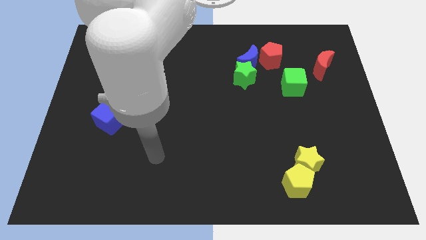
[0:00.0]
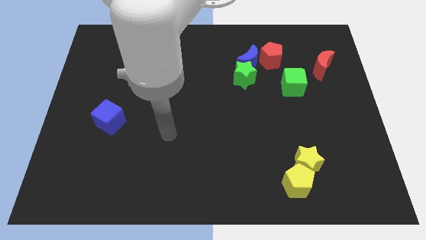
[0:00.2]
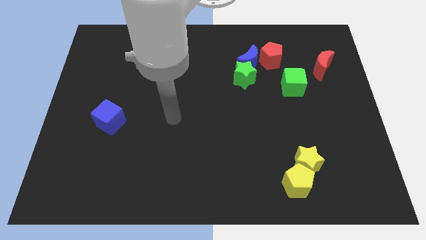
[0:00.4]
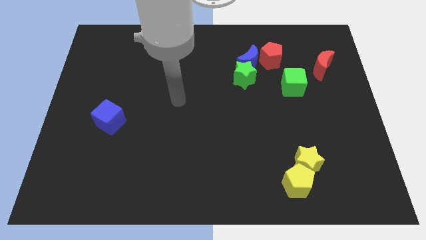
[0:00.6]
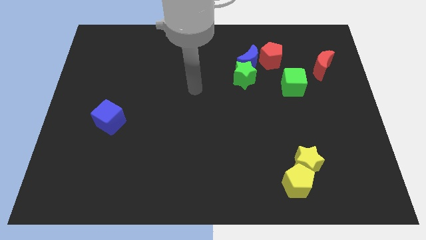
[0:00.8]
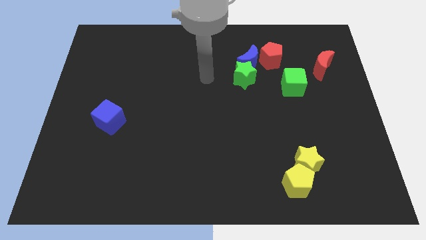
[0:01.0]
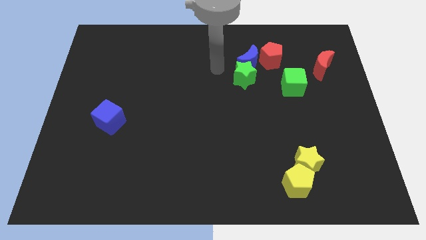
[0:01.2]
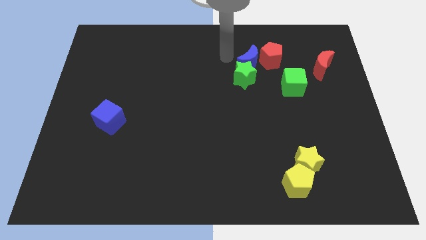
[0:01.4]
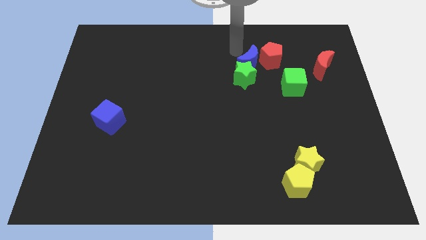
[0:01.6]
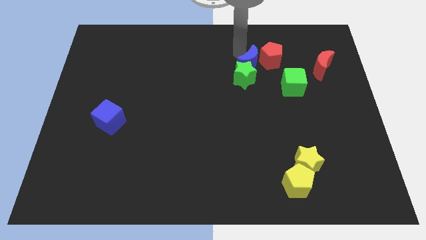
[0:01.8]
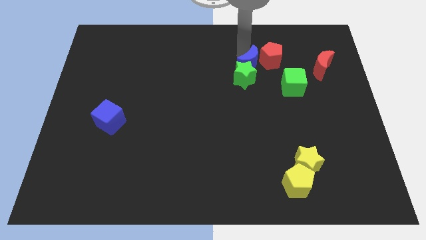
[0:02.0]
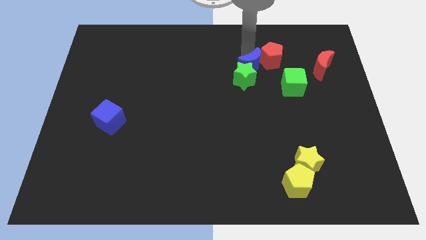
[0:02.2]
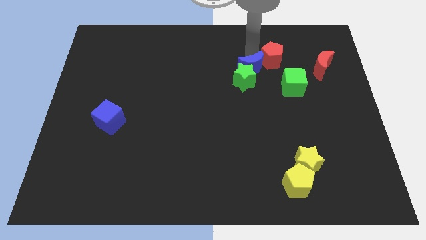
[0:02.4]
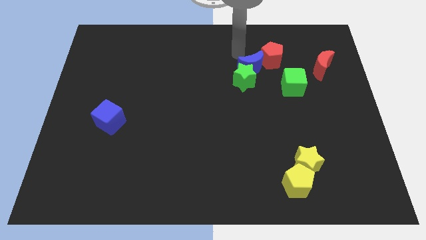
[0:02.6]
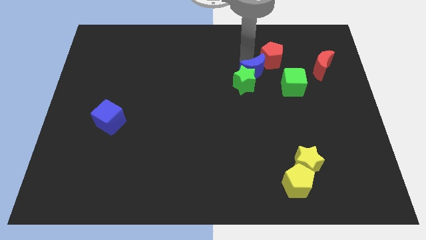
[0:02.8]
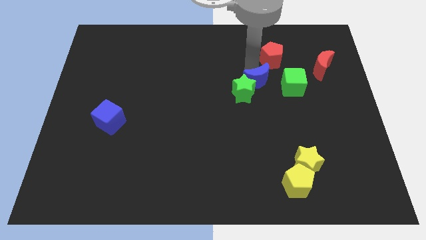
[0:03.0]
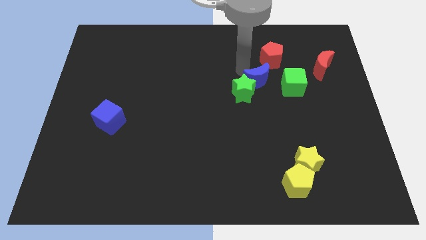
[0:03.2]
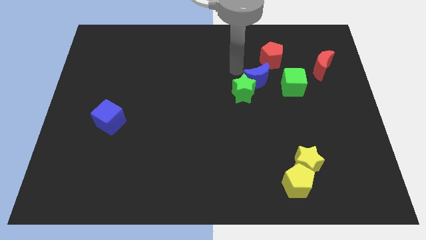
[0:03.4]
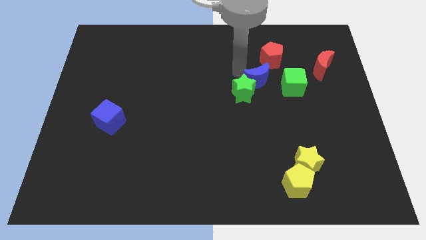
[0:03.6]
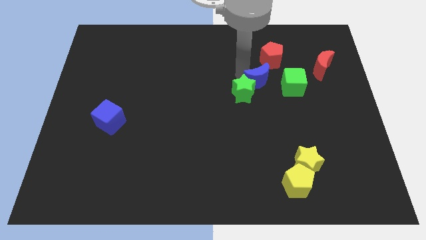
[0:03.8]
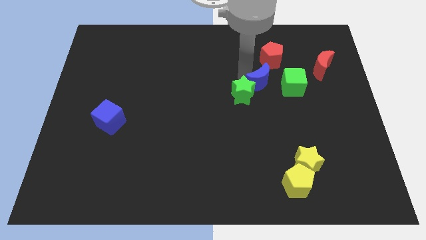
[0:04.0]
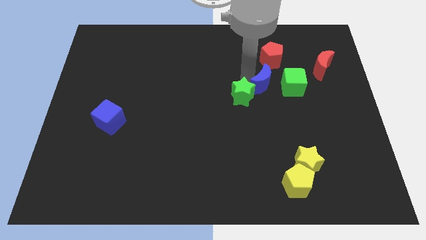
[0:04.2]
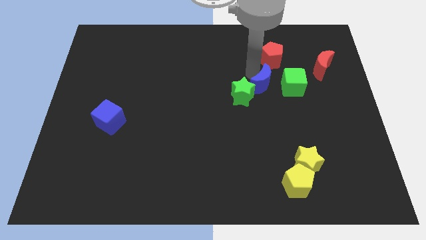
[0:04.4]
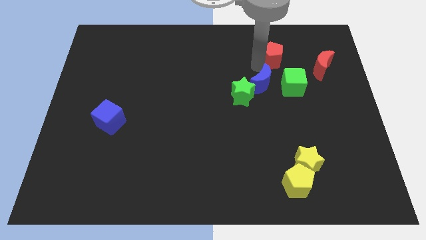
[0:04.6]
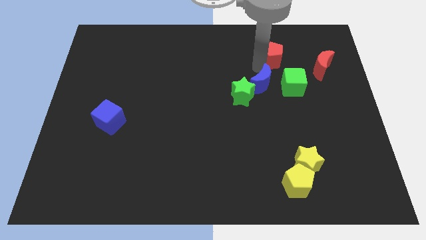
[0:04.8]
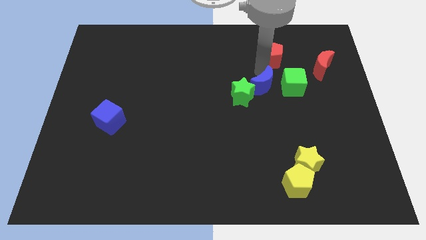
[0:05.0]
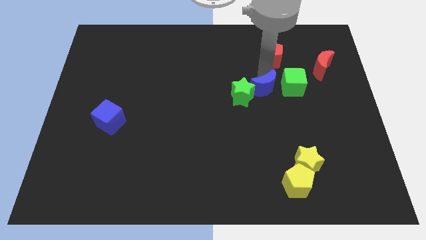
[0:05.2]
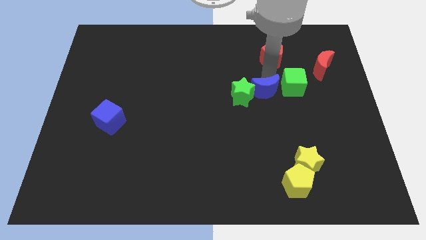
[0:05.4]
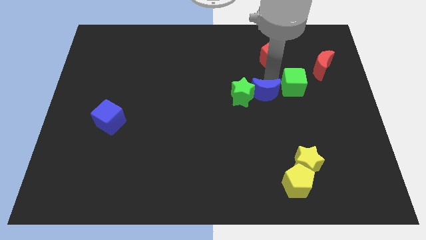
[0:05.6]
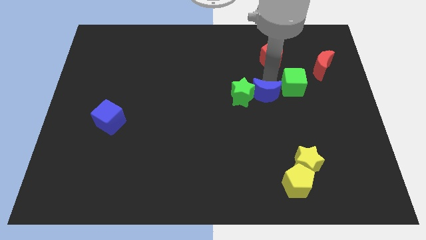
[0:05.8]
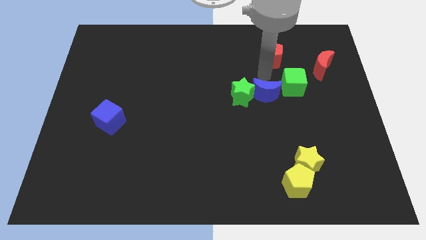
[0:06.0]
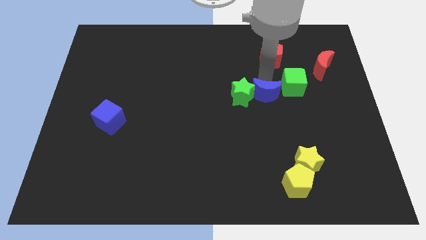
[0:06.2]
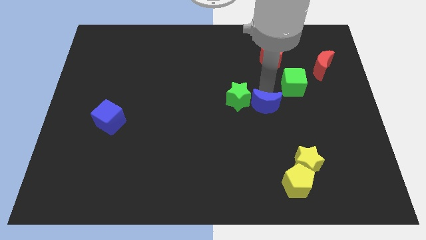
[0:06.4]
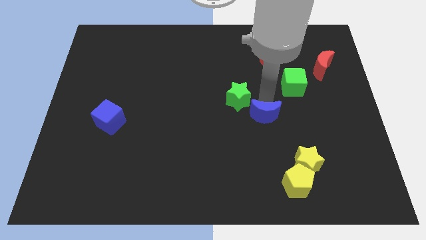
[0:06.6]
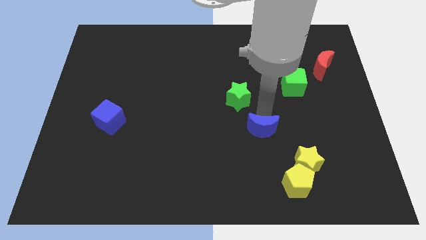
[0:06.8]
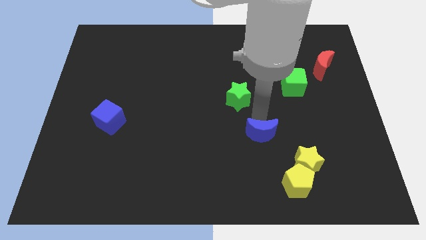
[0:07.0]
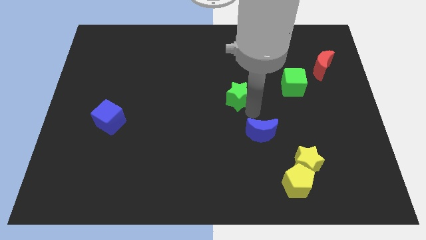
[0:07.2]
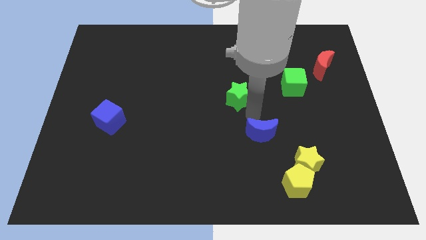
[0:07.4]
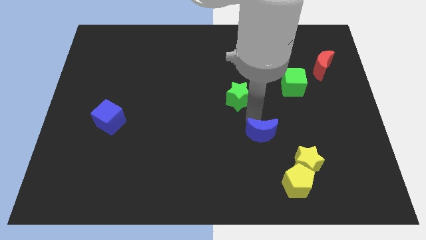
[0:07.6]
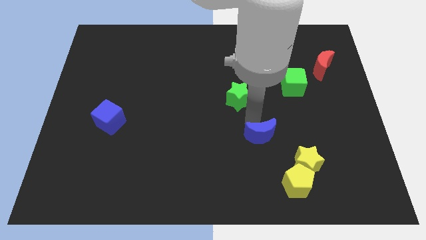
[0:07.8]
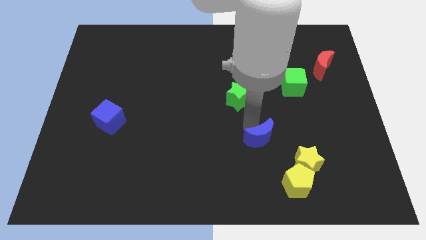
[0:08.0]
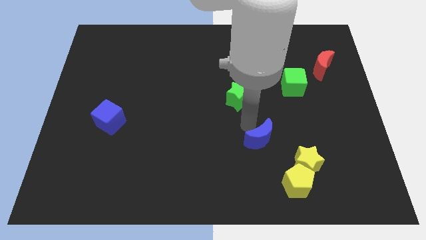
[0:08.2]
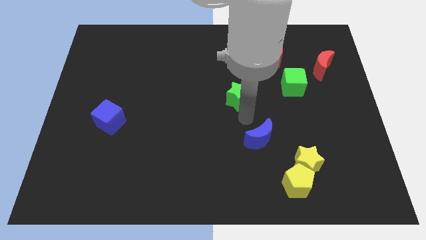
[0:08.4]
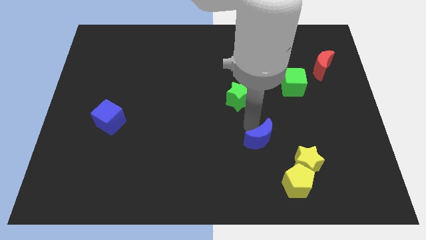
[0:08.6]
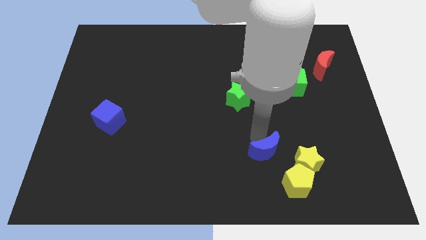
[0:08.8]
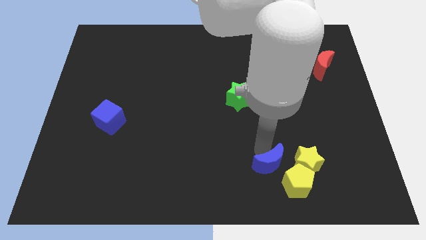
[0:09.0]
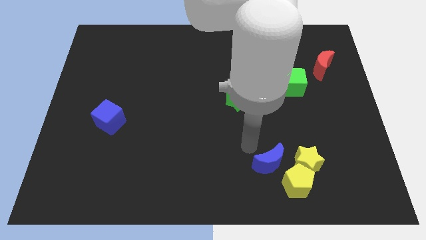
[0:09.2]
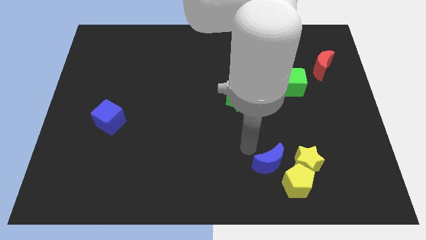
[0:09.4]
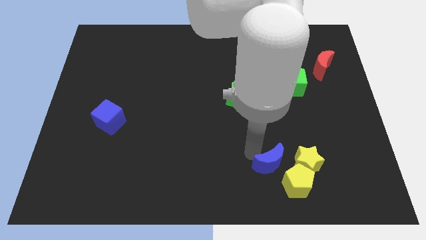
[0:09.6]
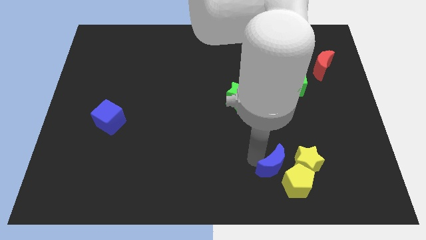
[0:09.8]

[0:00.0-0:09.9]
put the blue moon to the yellow pentagon

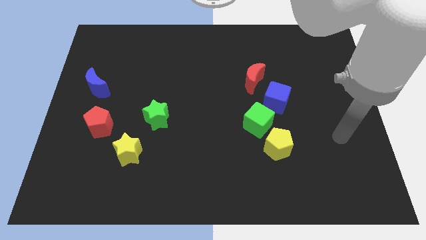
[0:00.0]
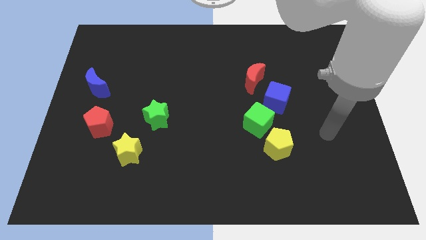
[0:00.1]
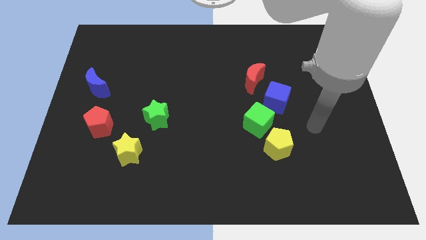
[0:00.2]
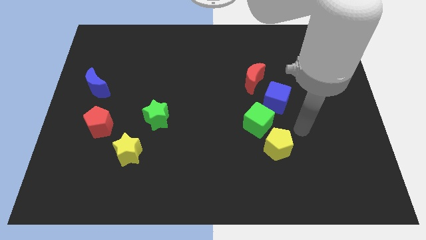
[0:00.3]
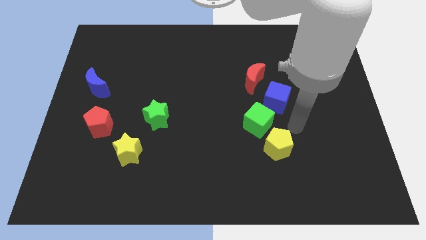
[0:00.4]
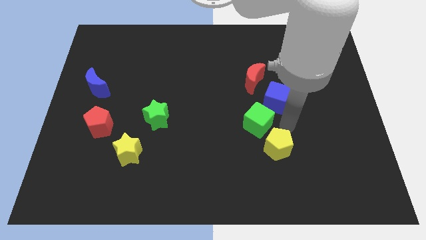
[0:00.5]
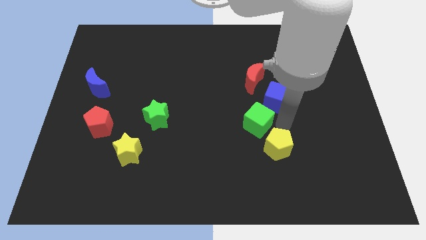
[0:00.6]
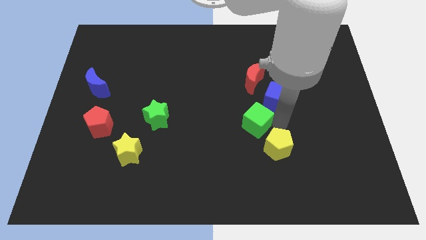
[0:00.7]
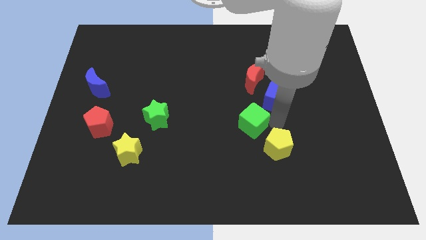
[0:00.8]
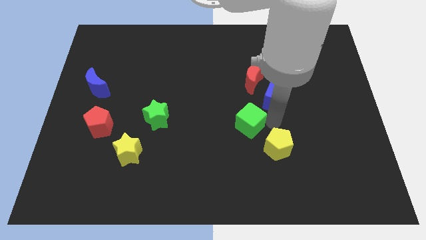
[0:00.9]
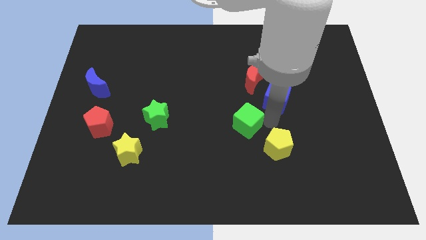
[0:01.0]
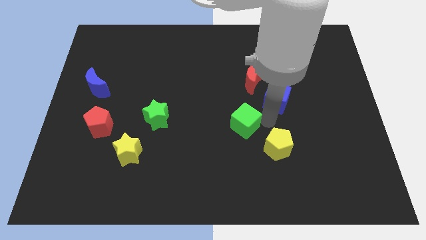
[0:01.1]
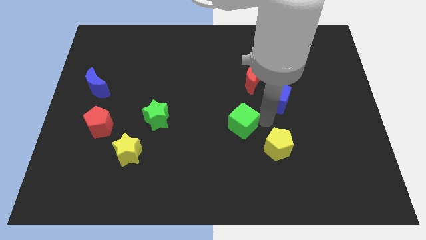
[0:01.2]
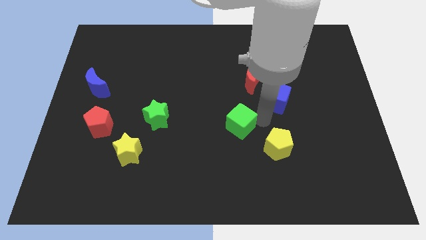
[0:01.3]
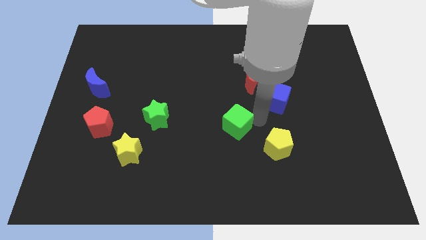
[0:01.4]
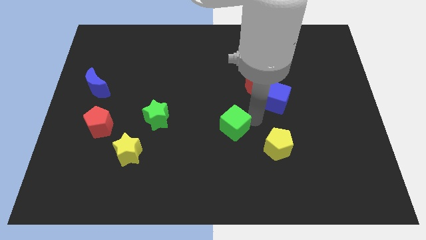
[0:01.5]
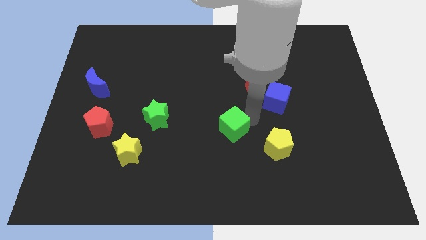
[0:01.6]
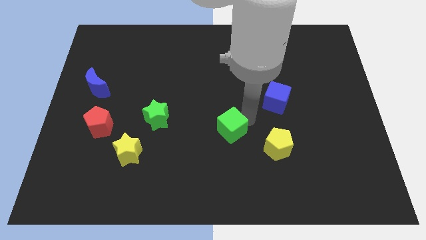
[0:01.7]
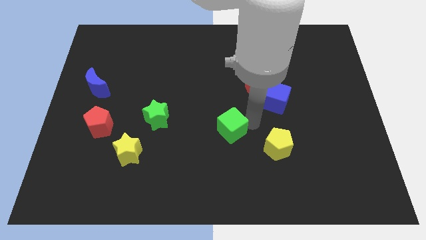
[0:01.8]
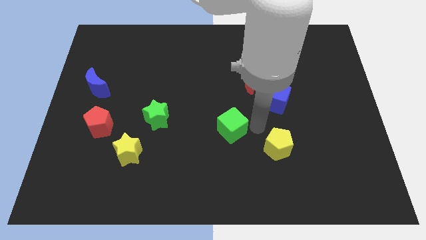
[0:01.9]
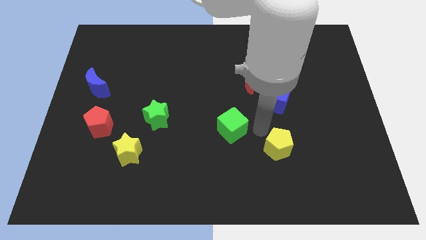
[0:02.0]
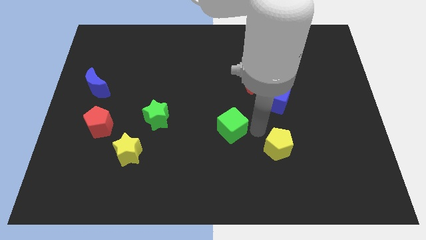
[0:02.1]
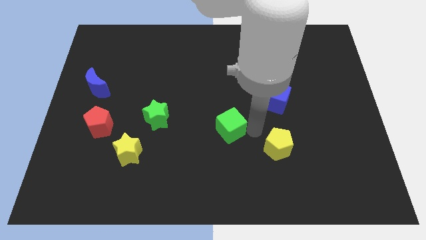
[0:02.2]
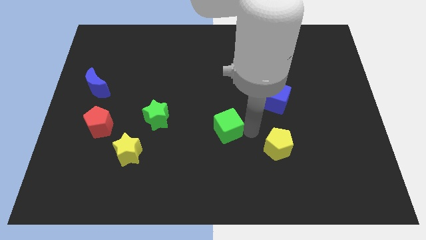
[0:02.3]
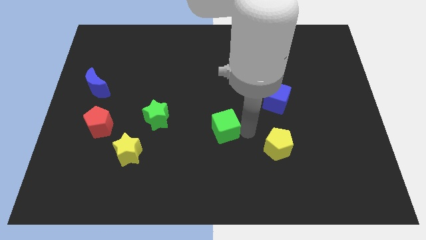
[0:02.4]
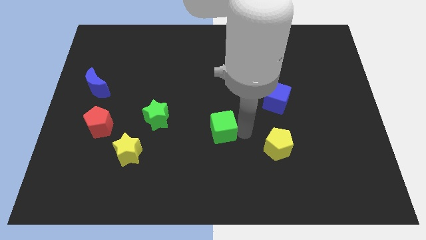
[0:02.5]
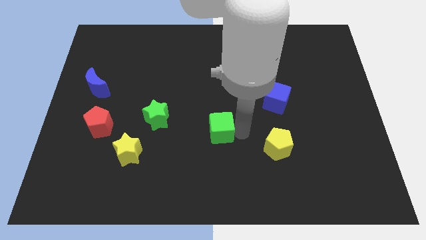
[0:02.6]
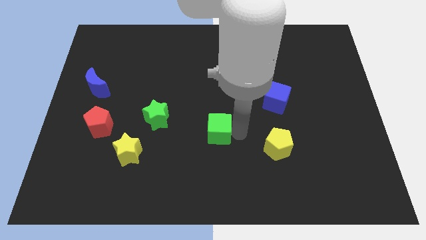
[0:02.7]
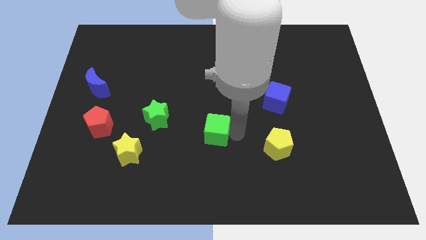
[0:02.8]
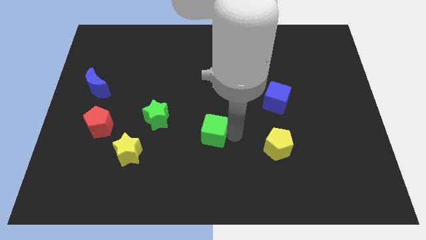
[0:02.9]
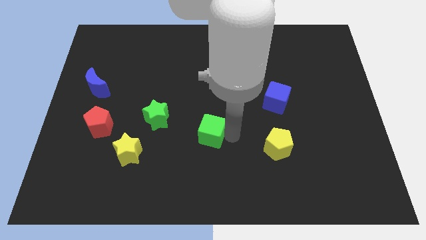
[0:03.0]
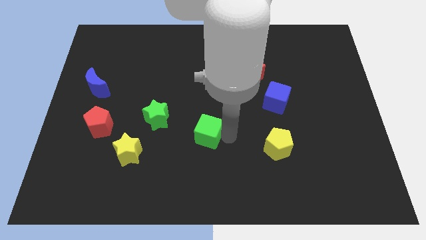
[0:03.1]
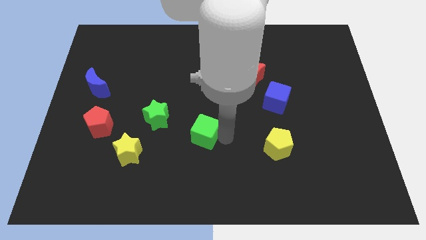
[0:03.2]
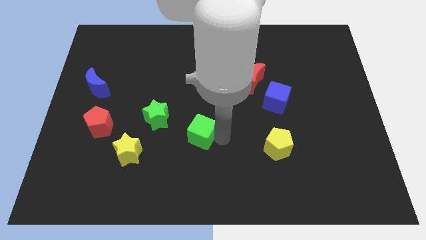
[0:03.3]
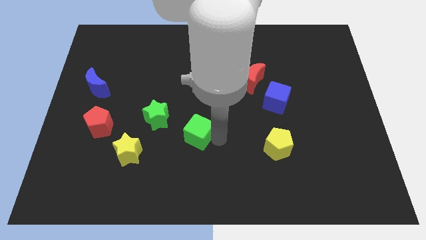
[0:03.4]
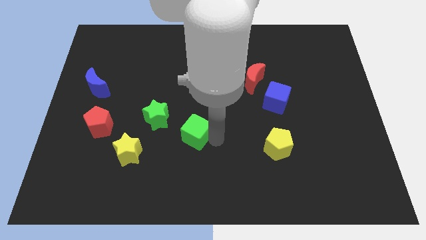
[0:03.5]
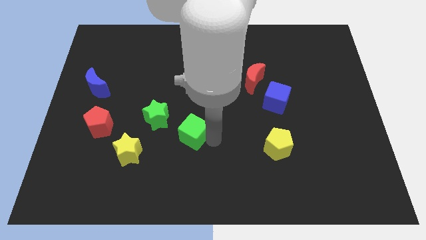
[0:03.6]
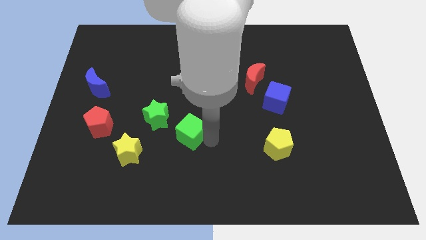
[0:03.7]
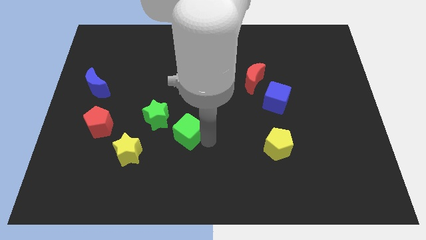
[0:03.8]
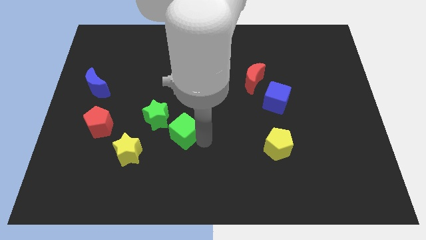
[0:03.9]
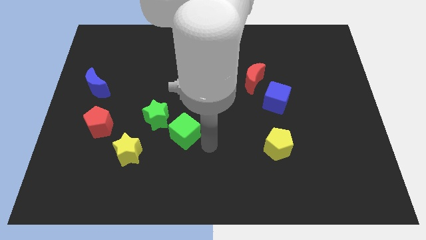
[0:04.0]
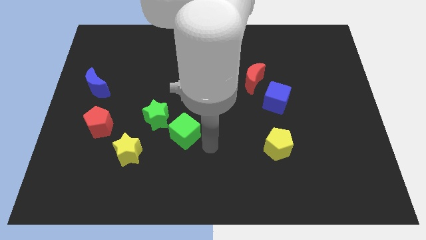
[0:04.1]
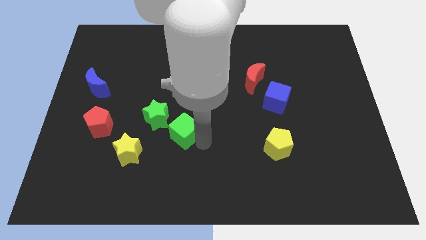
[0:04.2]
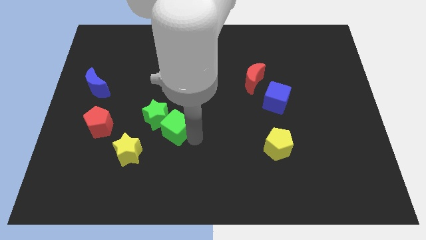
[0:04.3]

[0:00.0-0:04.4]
push the green cube close to the green star
